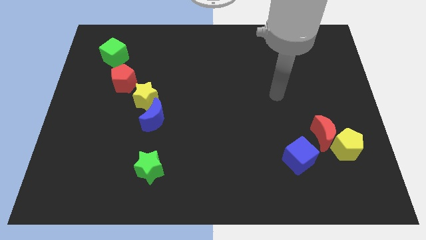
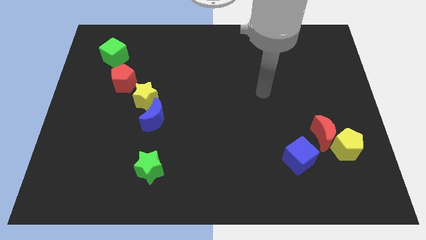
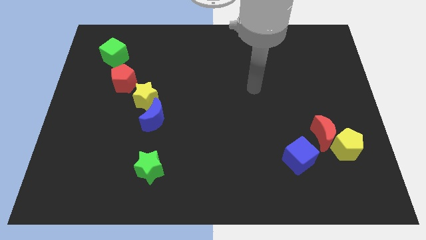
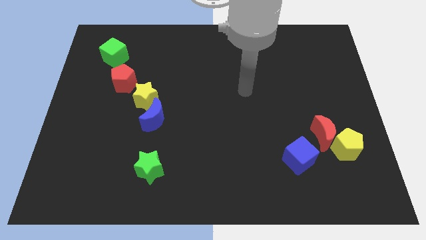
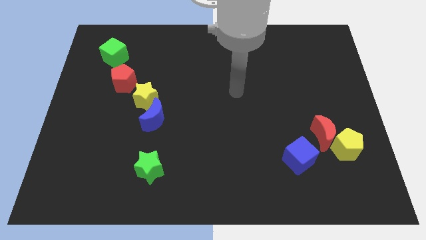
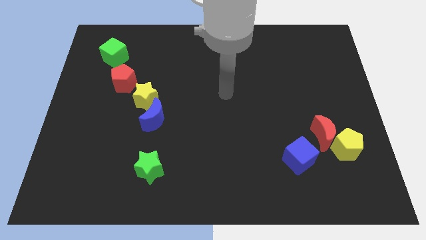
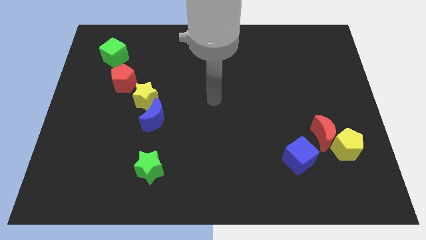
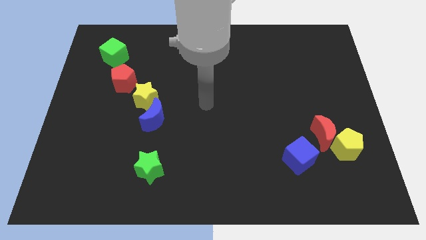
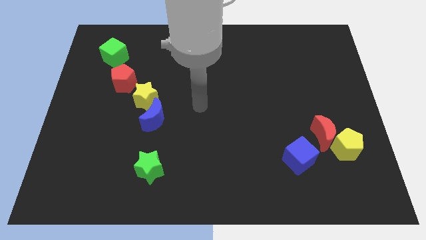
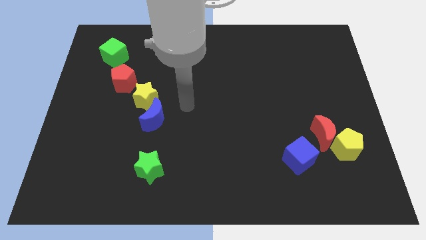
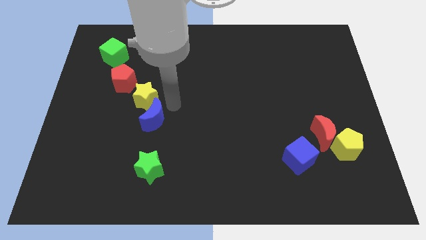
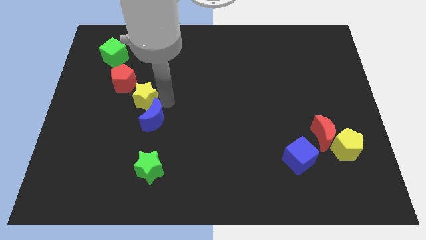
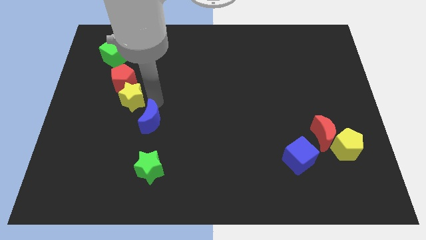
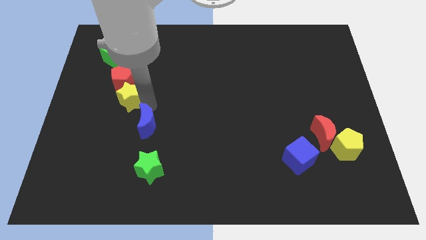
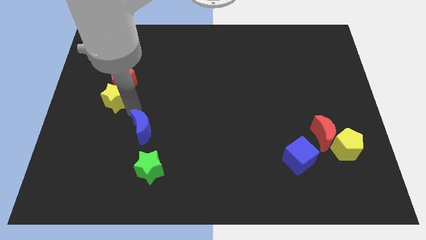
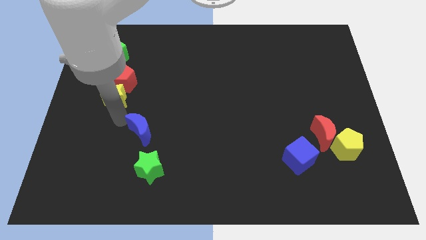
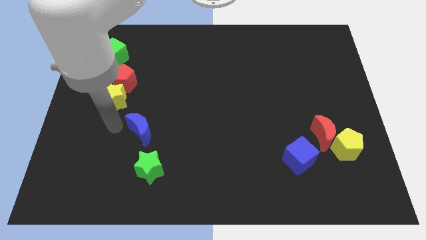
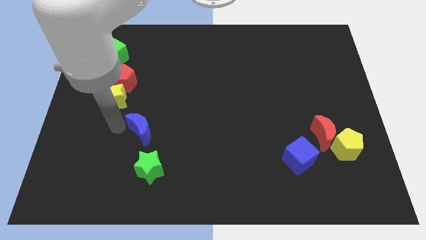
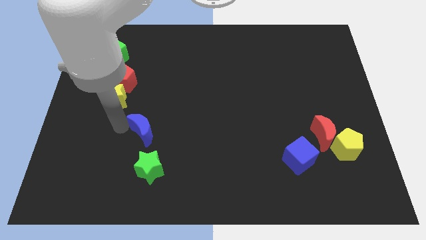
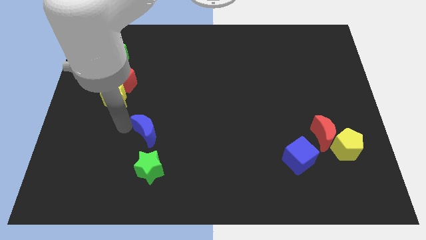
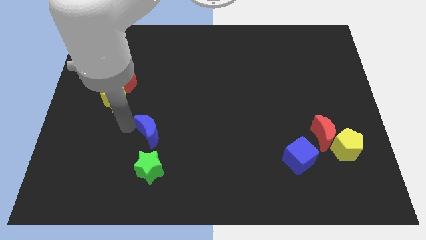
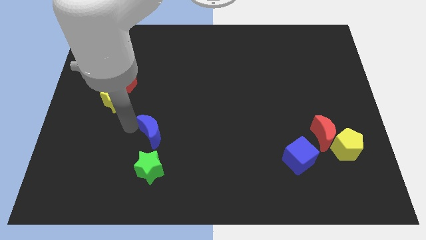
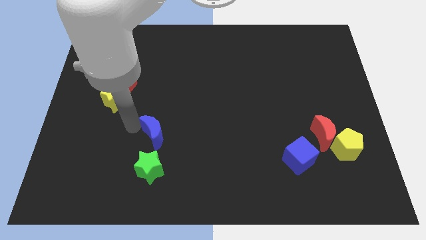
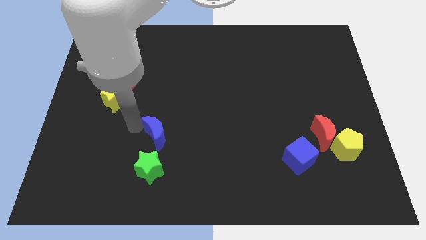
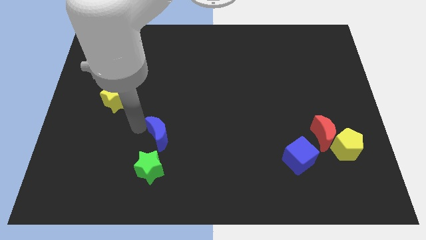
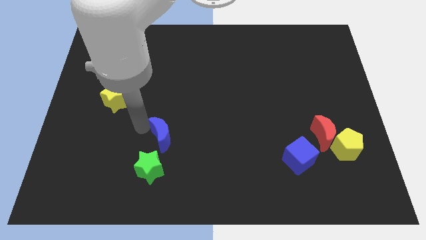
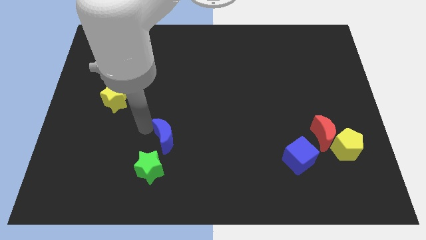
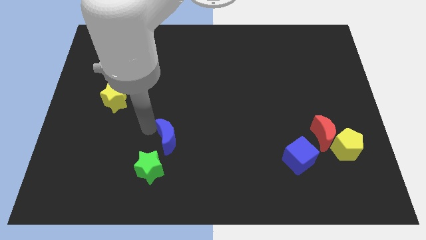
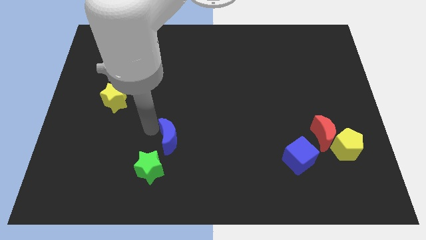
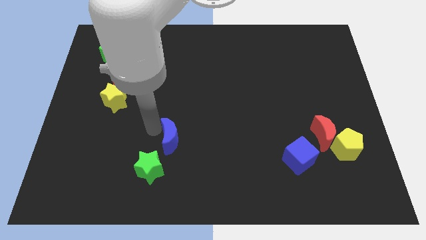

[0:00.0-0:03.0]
slightly push the blue moon down and right diagonally

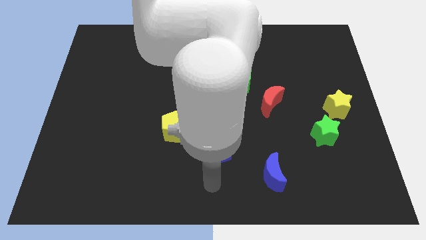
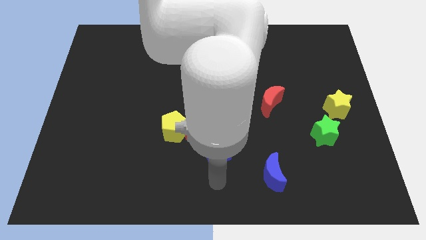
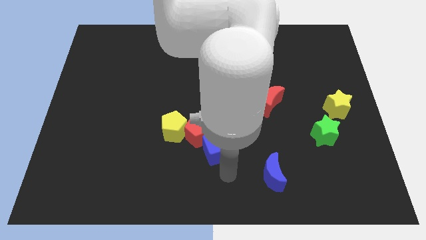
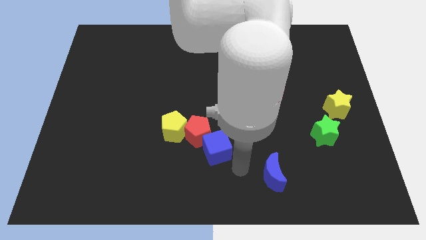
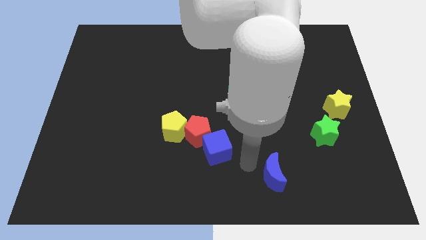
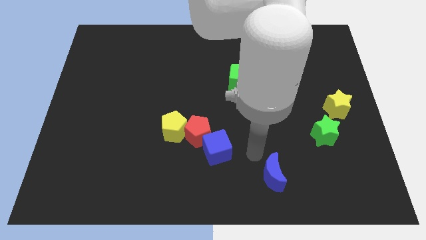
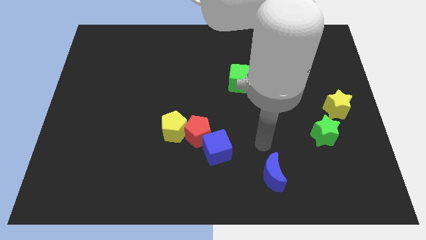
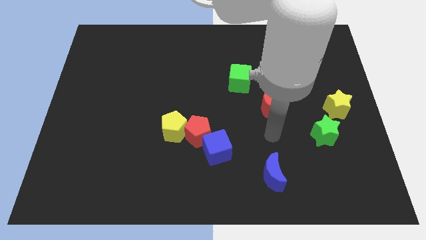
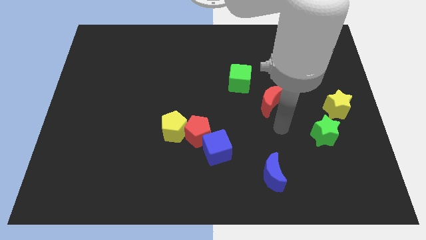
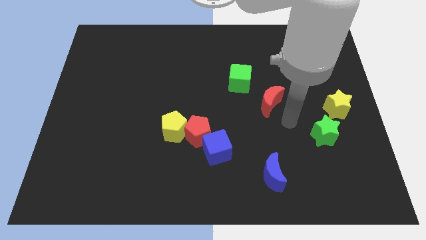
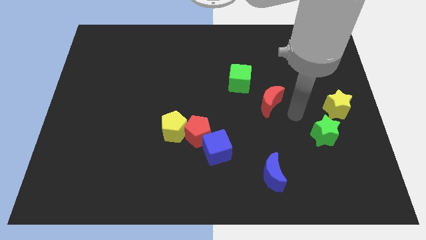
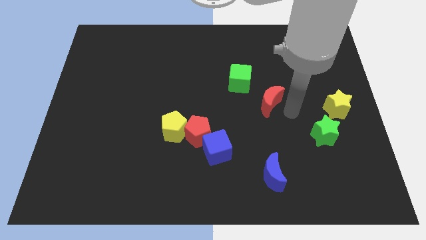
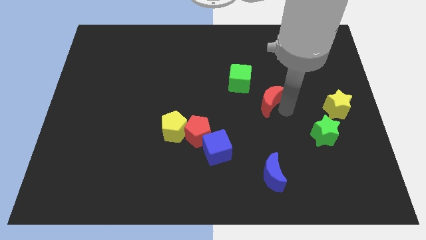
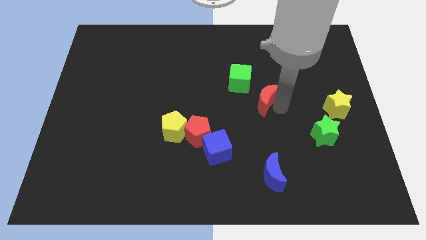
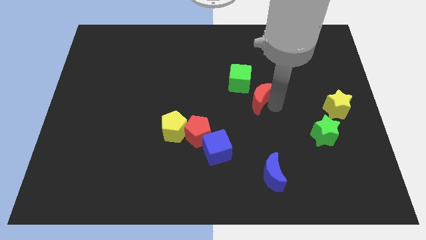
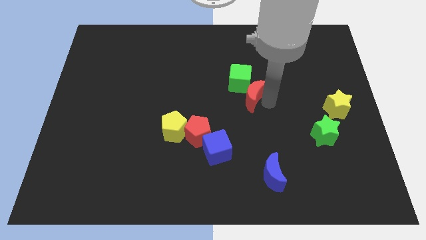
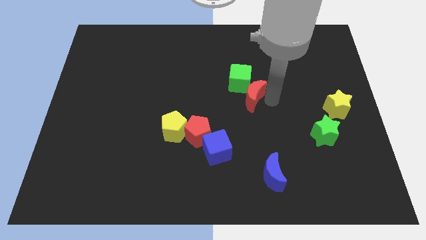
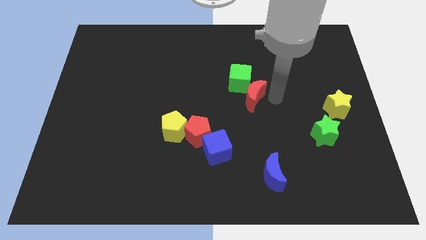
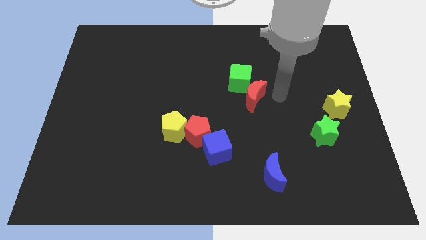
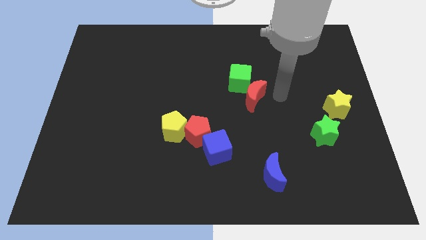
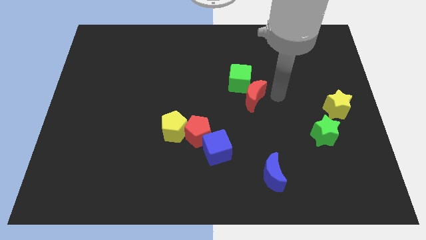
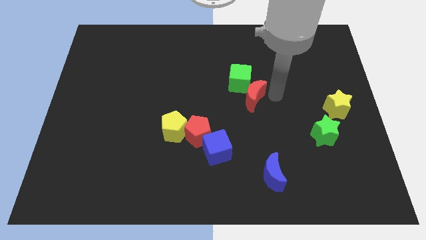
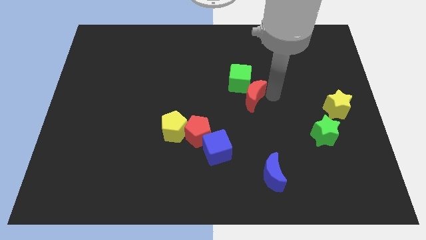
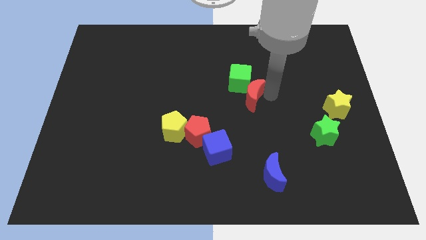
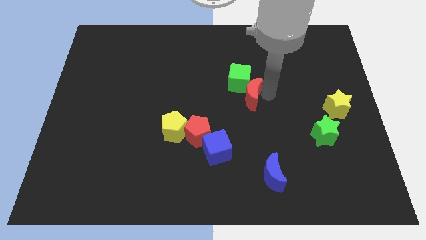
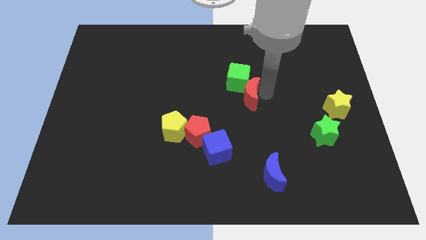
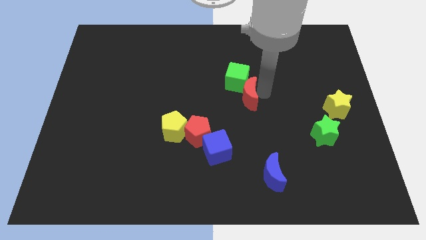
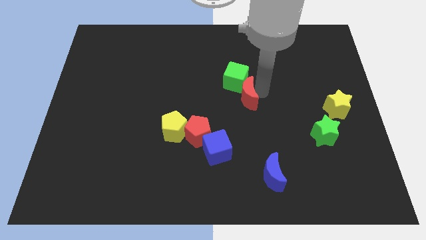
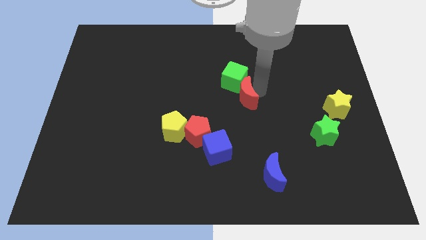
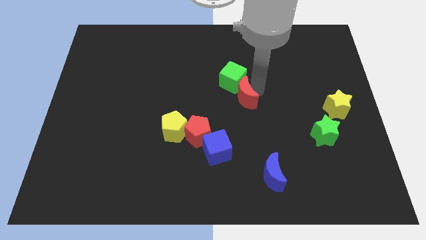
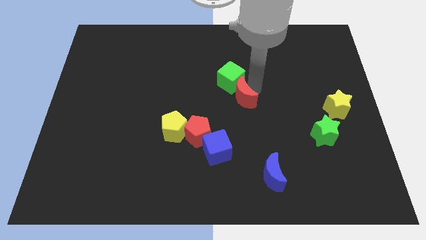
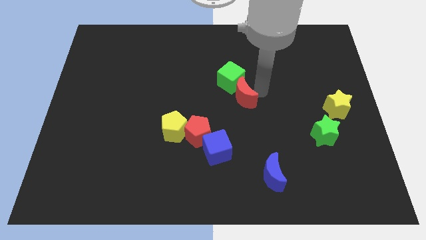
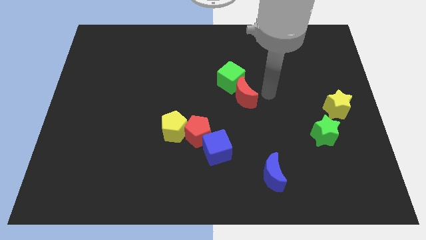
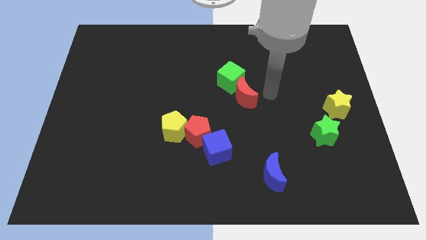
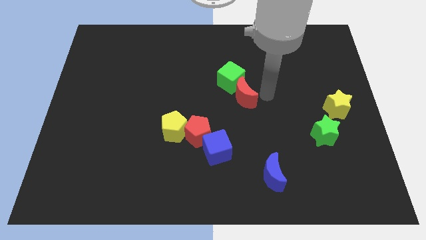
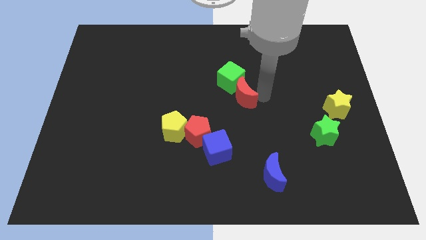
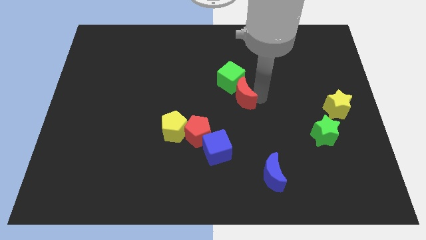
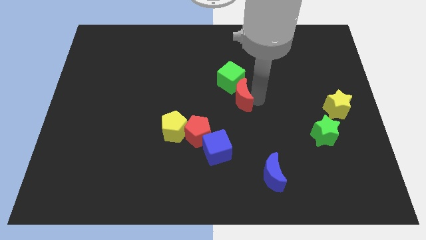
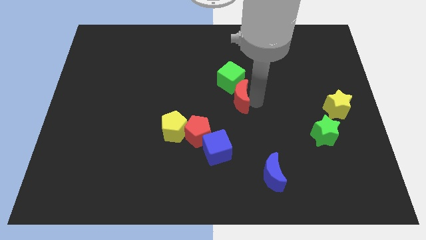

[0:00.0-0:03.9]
move the red moon a little bit left

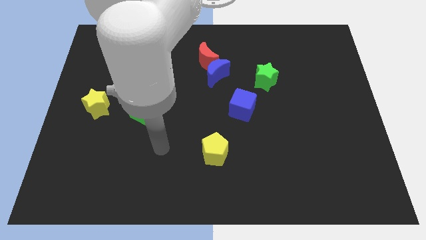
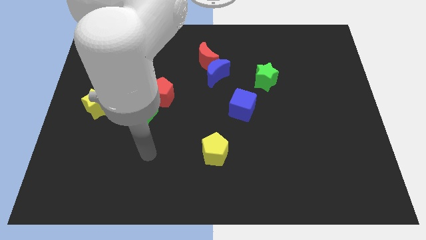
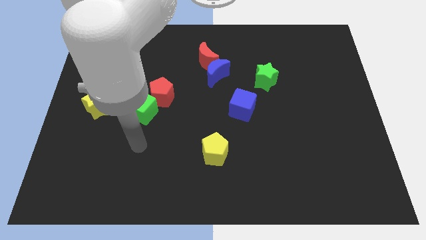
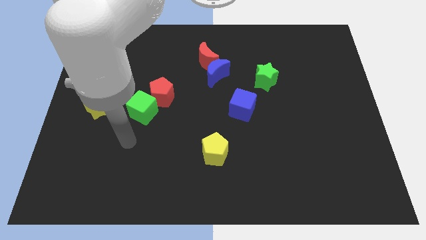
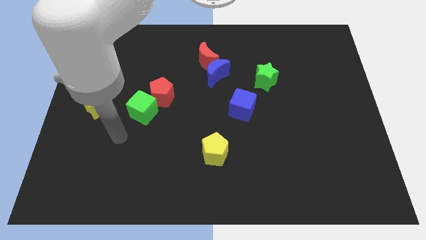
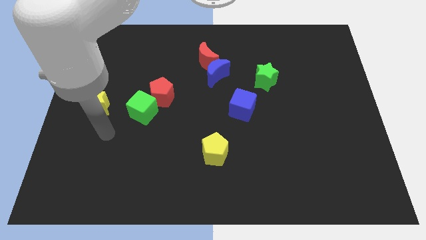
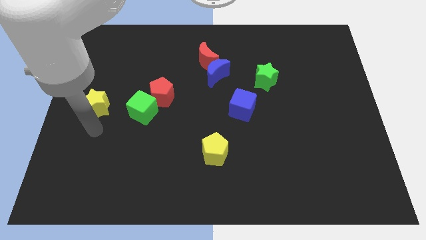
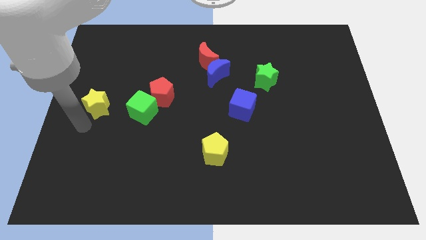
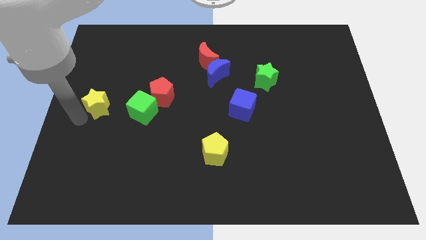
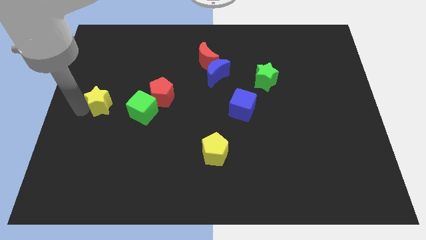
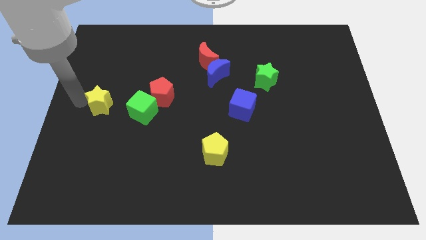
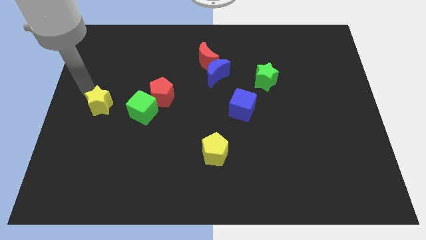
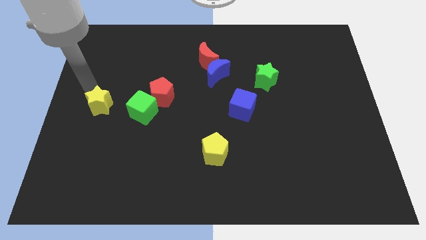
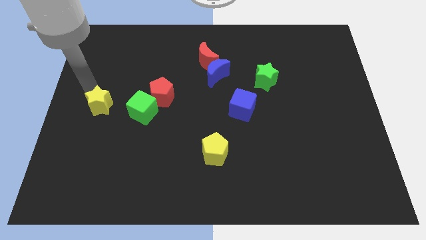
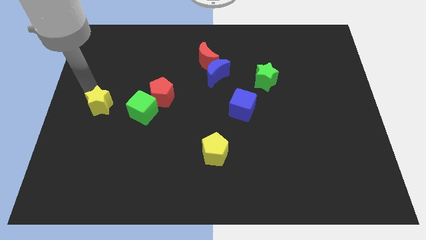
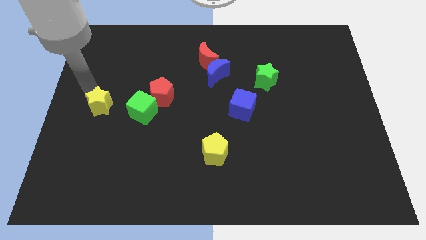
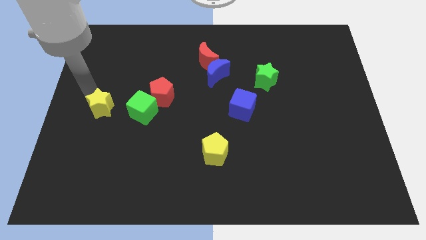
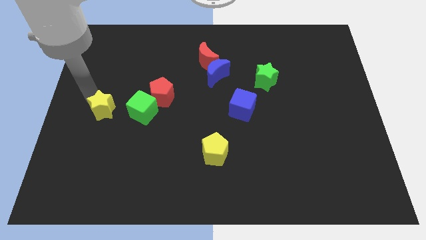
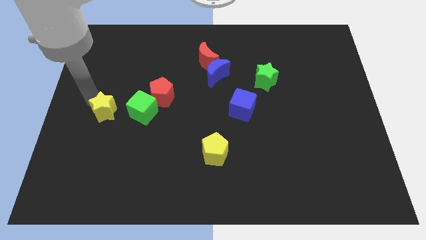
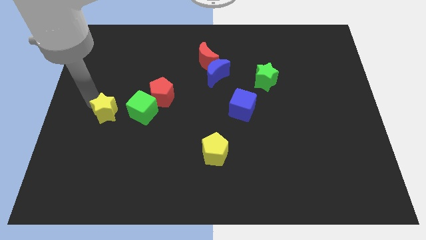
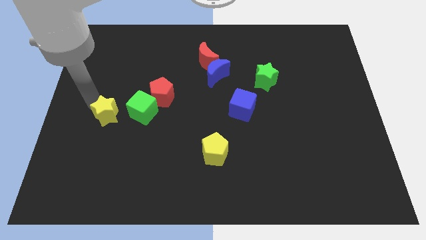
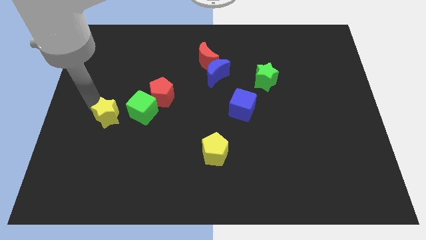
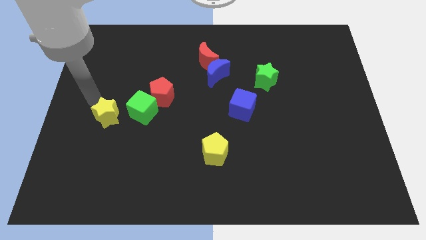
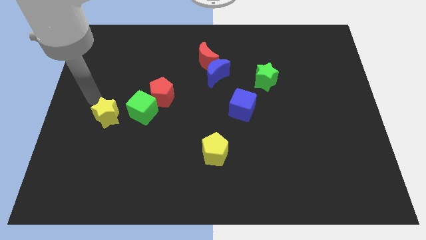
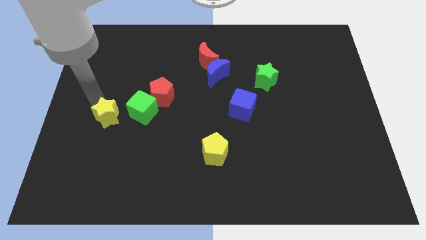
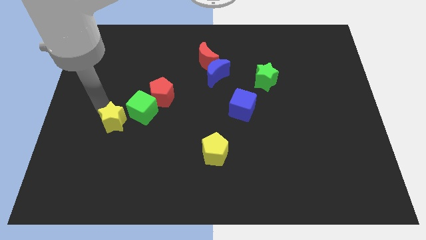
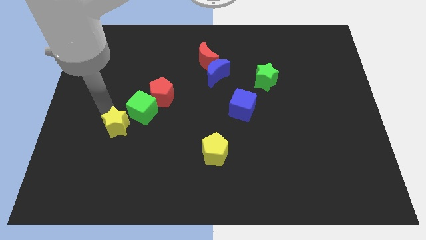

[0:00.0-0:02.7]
slightly move the yellow star downwards and to the right
